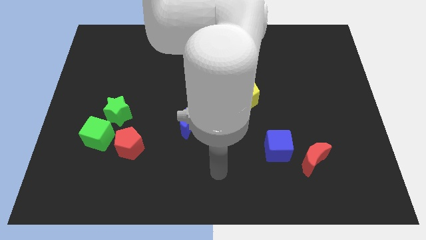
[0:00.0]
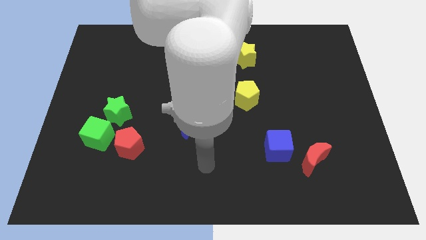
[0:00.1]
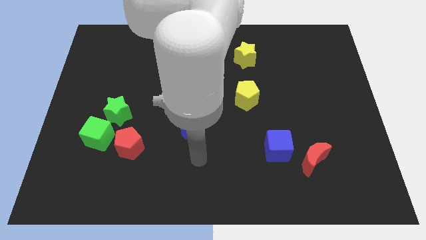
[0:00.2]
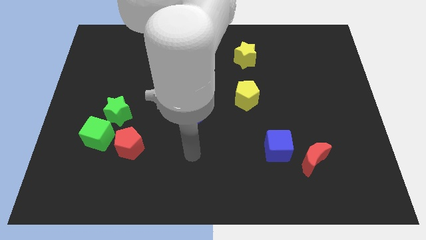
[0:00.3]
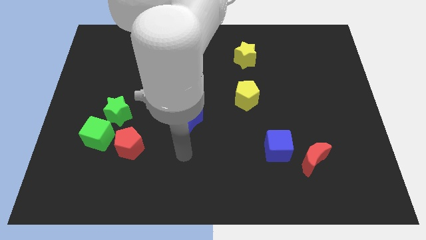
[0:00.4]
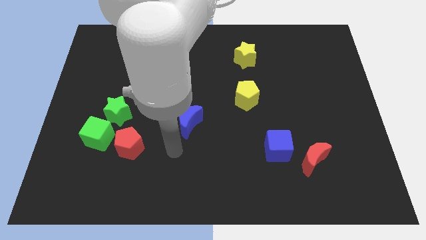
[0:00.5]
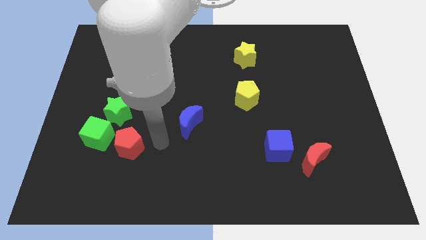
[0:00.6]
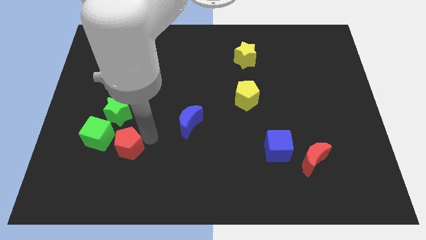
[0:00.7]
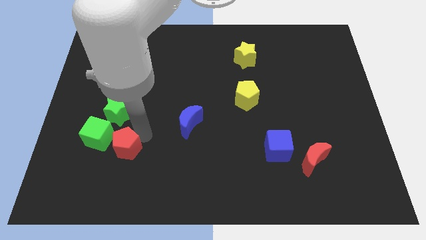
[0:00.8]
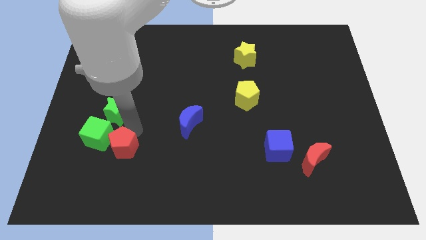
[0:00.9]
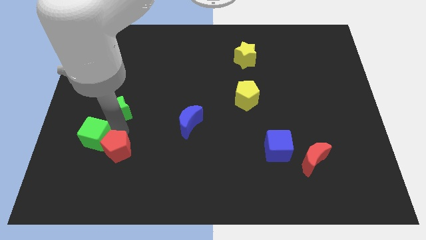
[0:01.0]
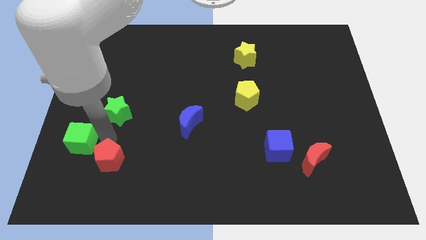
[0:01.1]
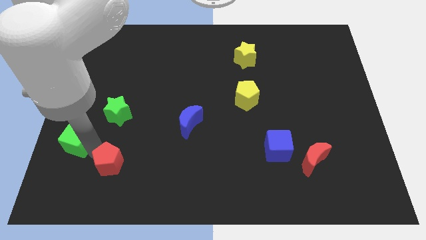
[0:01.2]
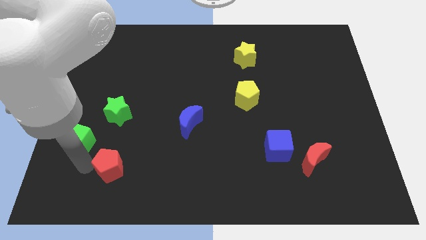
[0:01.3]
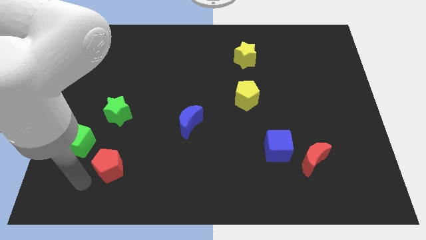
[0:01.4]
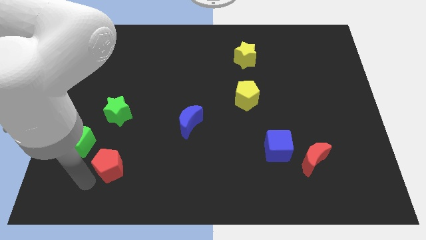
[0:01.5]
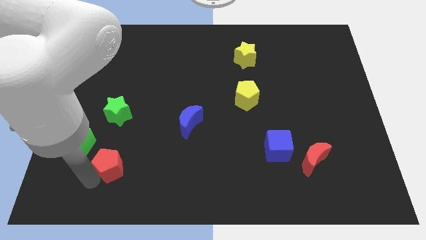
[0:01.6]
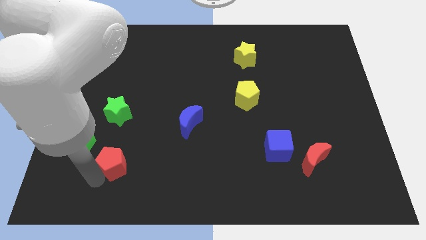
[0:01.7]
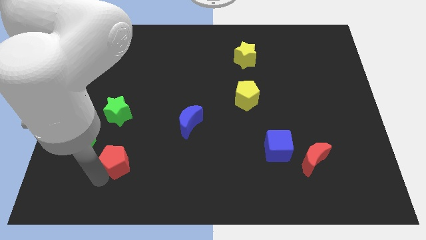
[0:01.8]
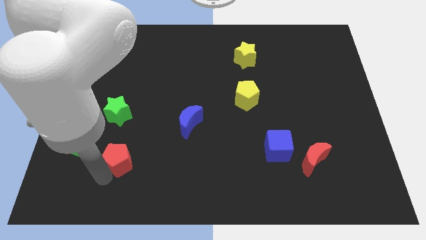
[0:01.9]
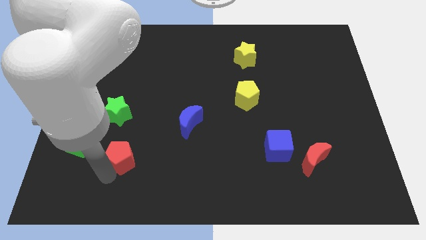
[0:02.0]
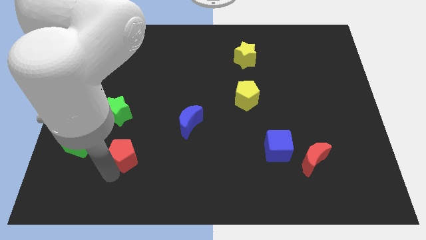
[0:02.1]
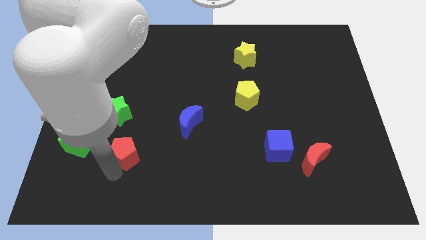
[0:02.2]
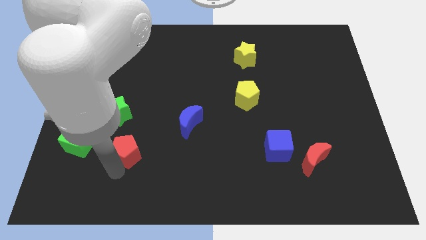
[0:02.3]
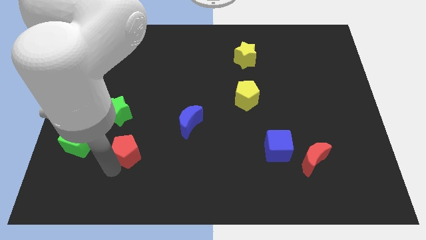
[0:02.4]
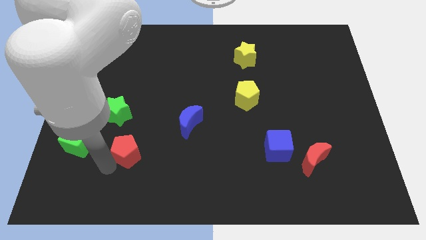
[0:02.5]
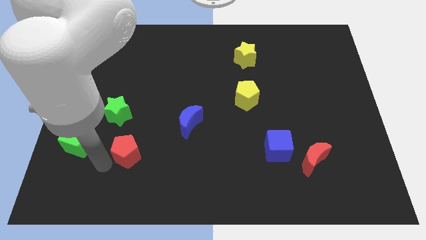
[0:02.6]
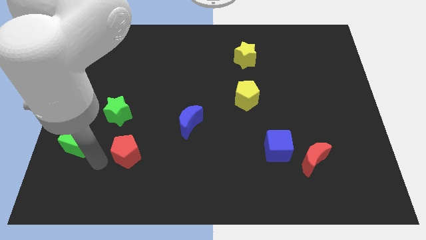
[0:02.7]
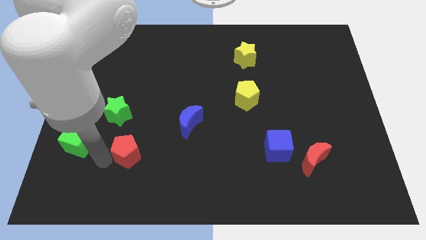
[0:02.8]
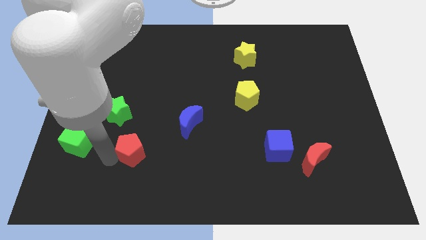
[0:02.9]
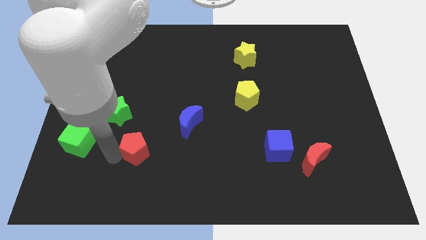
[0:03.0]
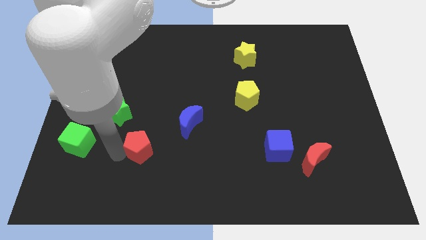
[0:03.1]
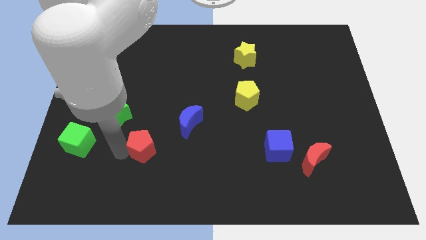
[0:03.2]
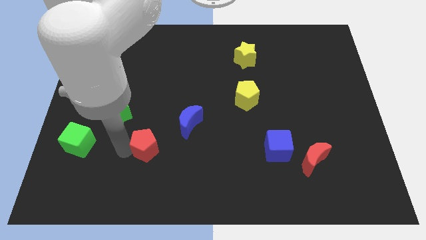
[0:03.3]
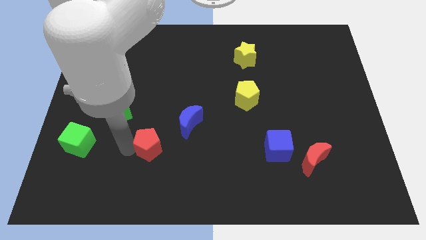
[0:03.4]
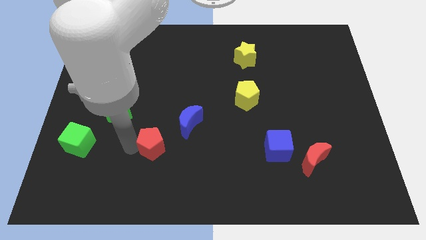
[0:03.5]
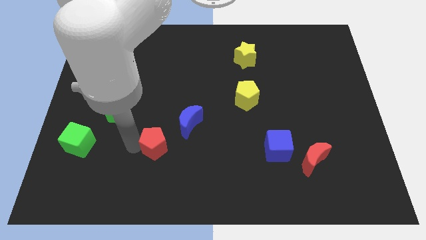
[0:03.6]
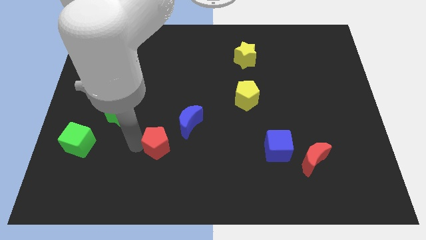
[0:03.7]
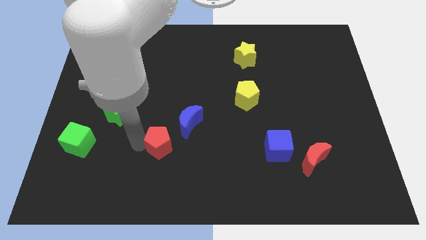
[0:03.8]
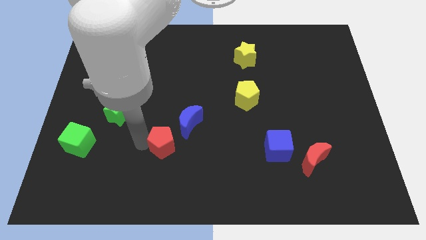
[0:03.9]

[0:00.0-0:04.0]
push the red pentagon right slightly

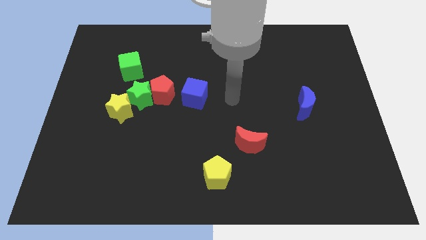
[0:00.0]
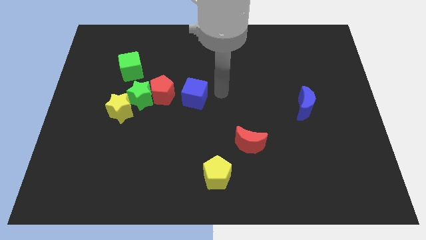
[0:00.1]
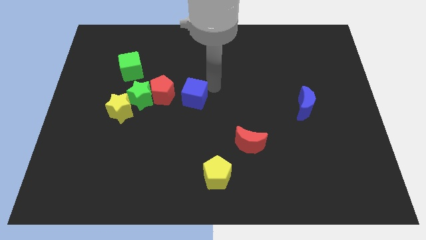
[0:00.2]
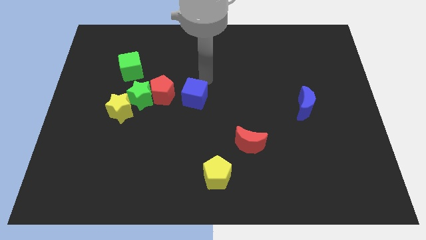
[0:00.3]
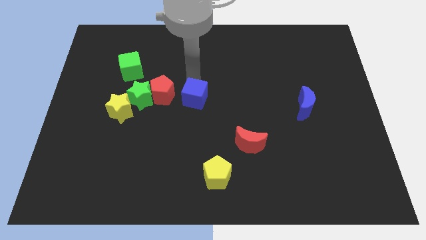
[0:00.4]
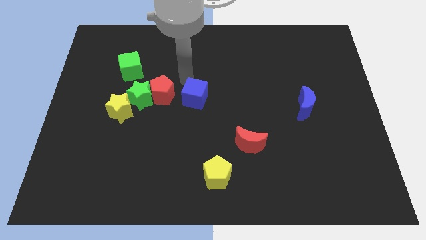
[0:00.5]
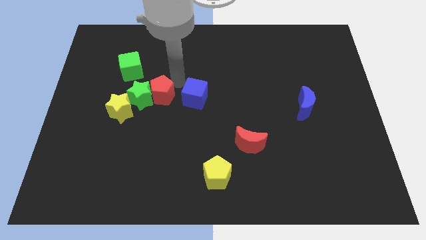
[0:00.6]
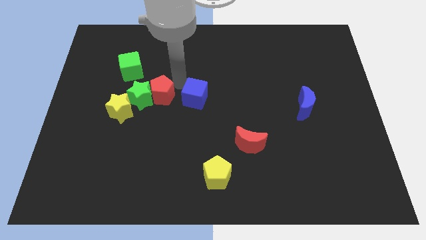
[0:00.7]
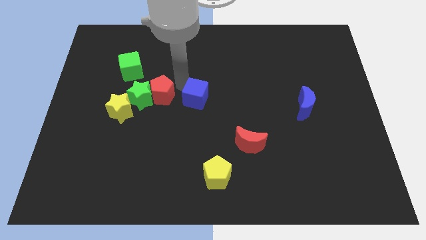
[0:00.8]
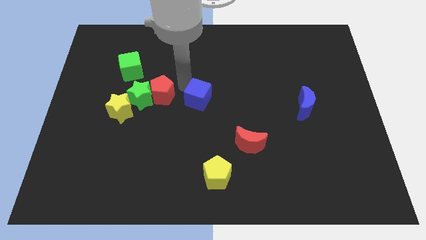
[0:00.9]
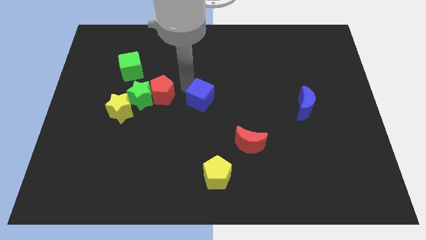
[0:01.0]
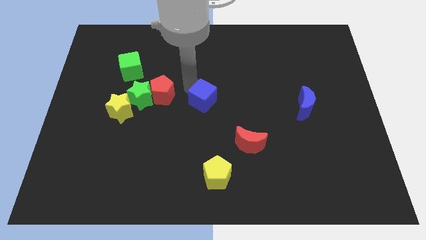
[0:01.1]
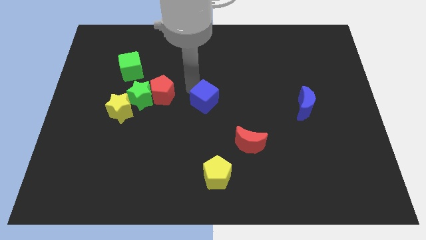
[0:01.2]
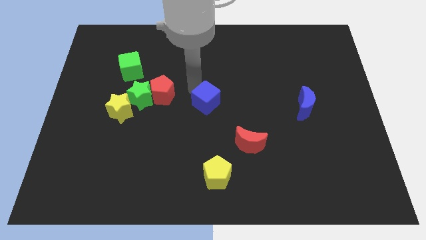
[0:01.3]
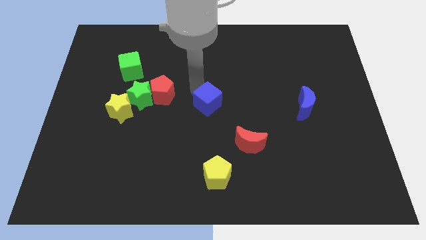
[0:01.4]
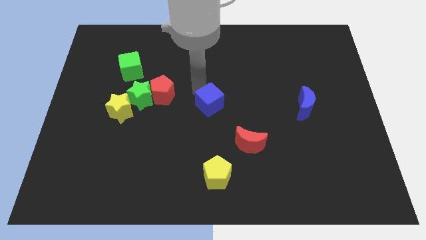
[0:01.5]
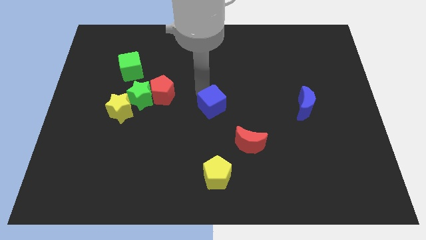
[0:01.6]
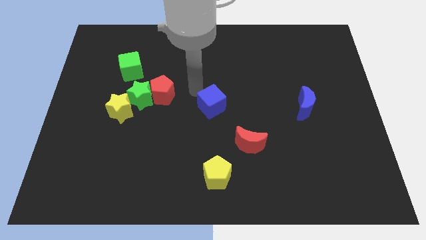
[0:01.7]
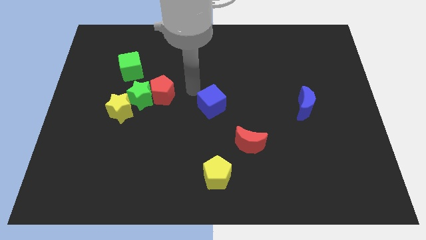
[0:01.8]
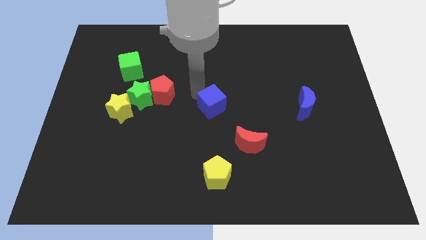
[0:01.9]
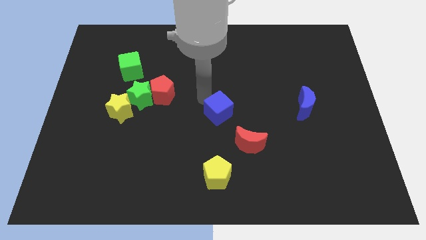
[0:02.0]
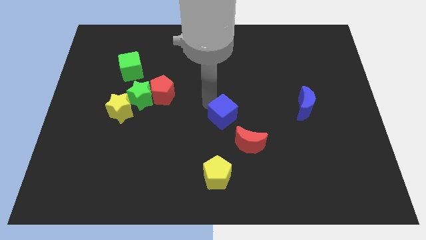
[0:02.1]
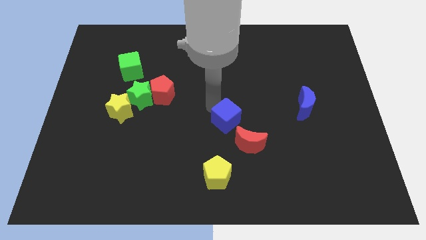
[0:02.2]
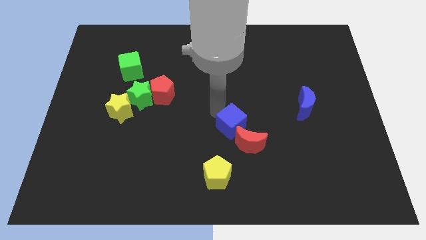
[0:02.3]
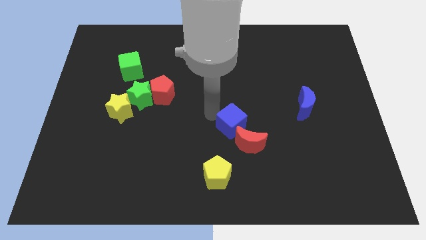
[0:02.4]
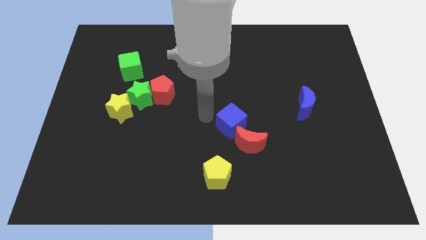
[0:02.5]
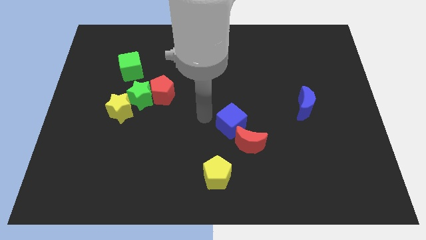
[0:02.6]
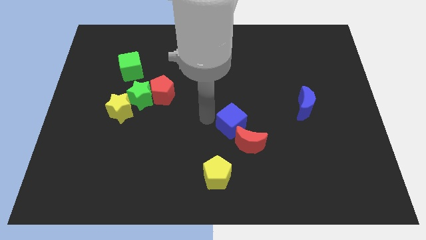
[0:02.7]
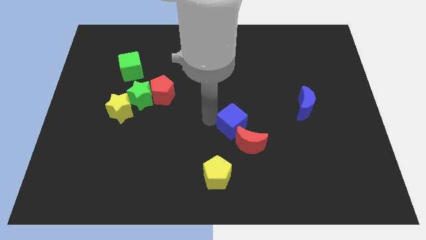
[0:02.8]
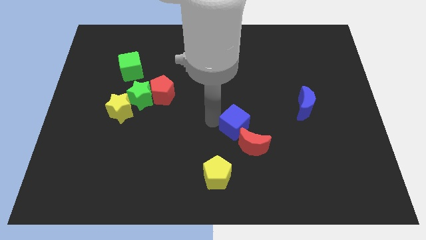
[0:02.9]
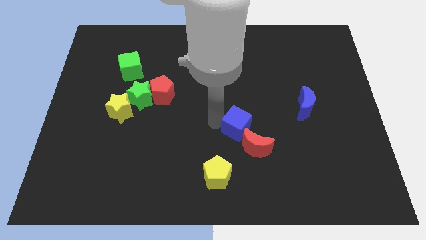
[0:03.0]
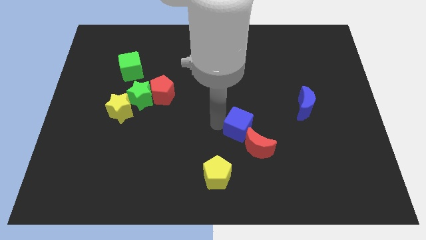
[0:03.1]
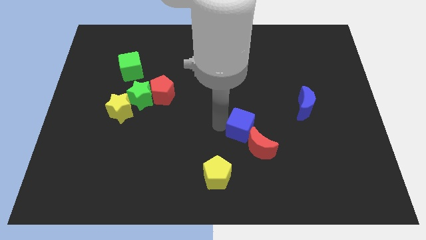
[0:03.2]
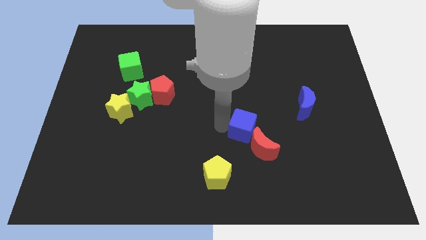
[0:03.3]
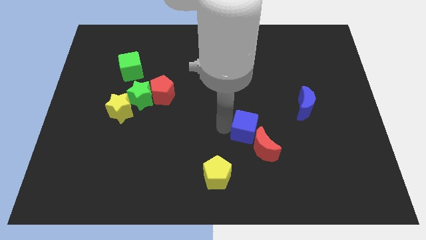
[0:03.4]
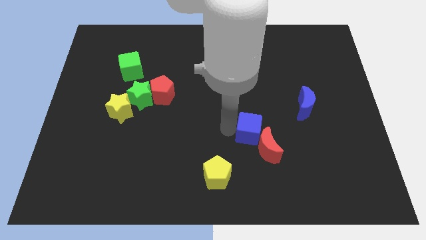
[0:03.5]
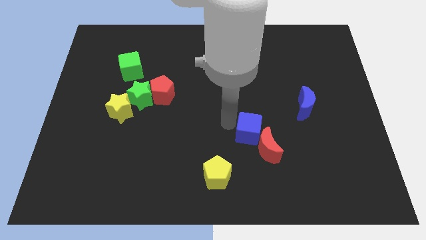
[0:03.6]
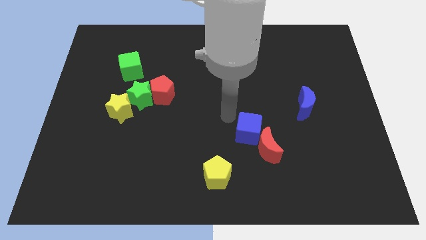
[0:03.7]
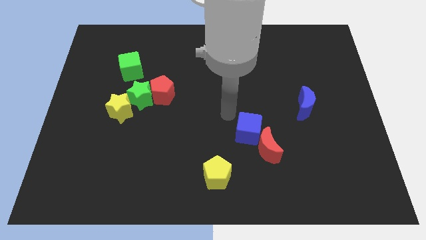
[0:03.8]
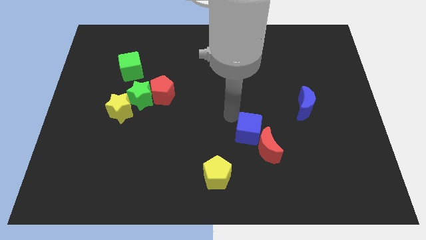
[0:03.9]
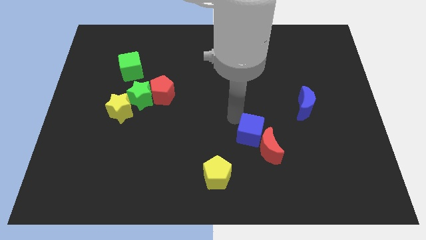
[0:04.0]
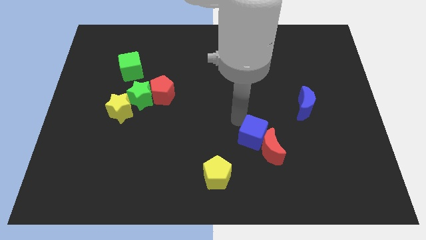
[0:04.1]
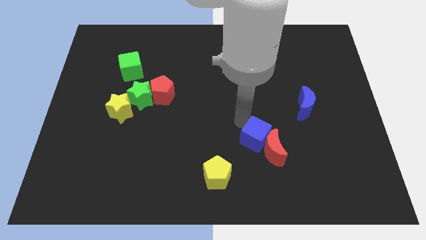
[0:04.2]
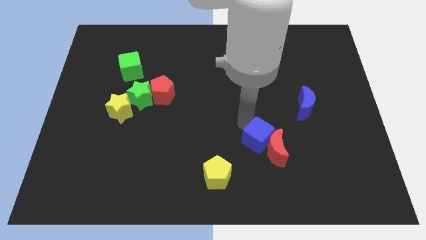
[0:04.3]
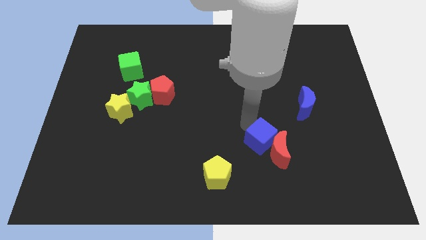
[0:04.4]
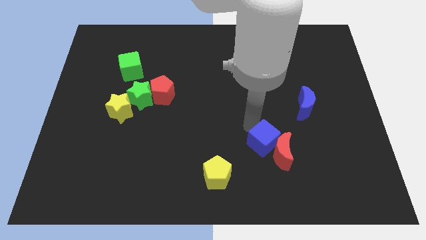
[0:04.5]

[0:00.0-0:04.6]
move the blue cube downwards and to the right diagonally
